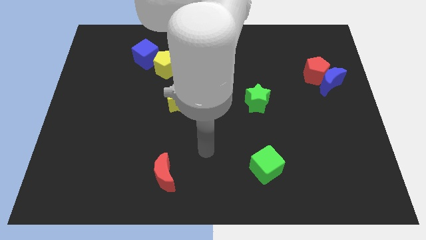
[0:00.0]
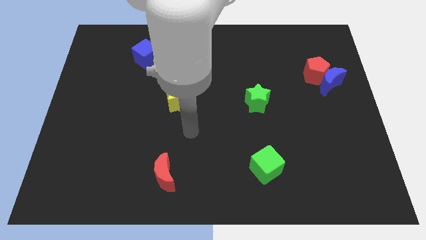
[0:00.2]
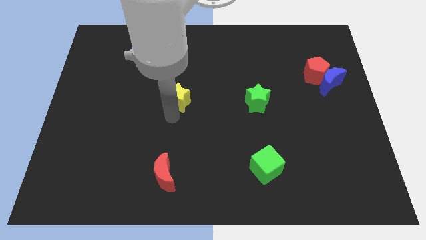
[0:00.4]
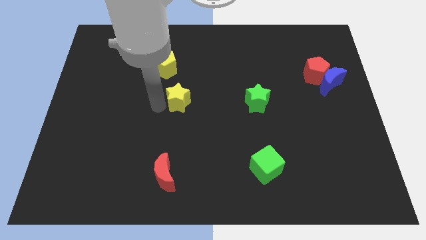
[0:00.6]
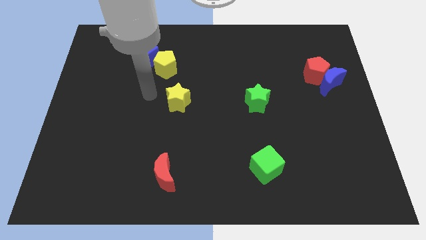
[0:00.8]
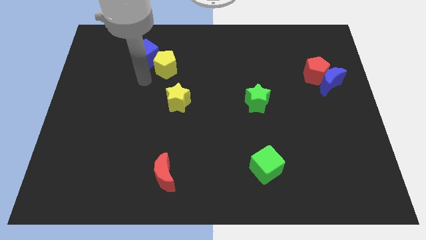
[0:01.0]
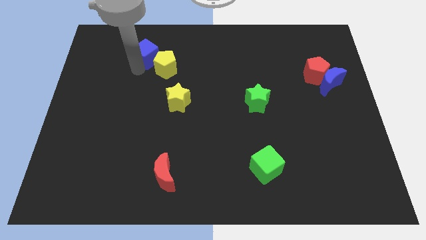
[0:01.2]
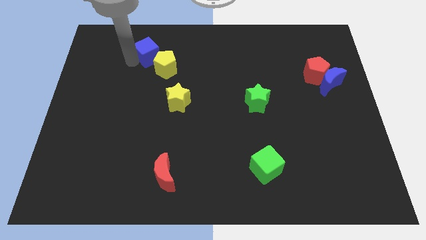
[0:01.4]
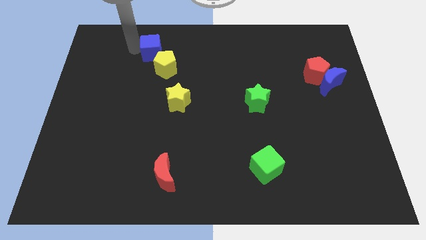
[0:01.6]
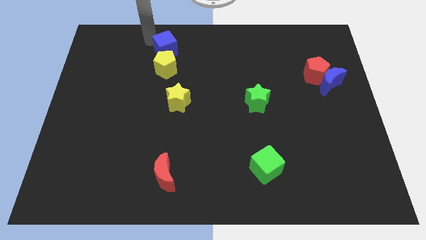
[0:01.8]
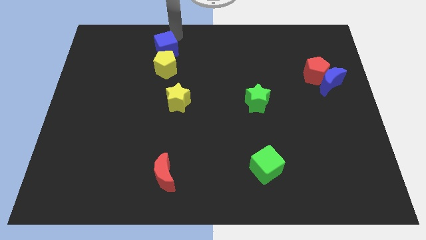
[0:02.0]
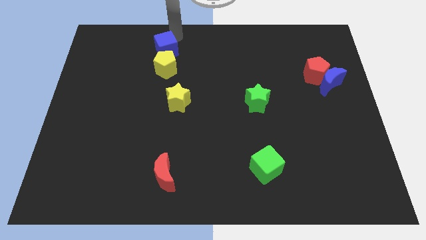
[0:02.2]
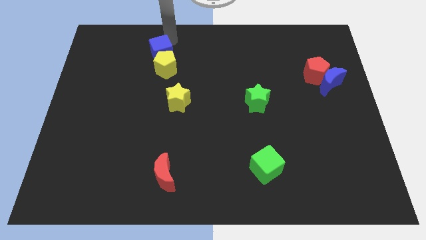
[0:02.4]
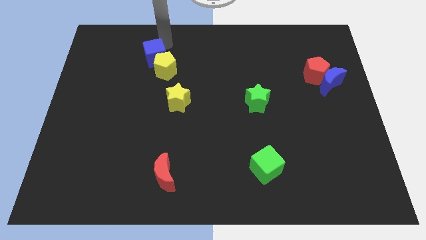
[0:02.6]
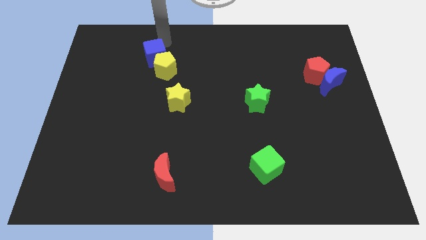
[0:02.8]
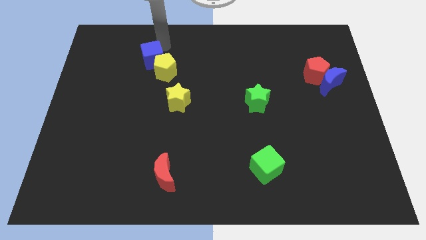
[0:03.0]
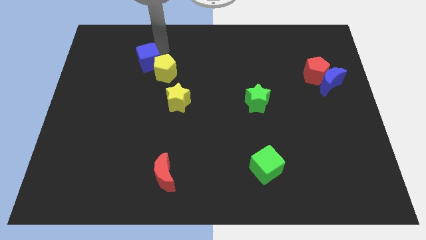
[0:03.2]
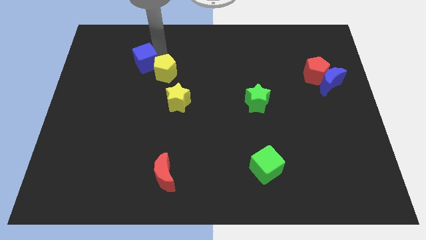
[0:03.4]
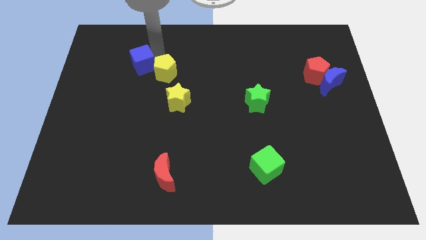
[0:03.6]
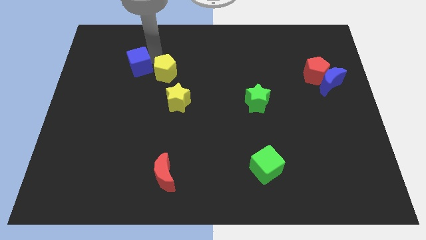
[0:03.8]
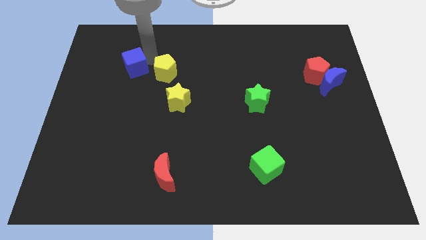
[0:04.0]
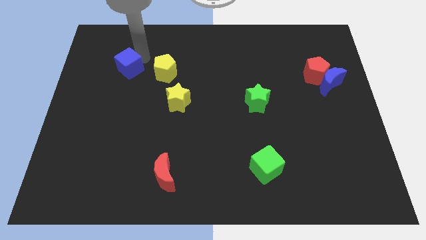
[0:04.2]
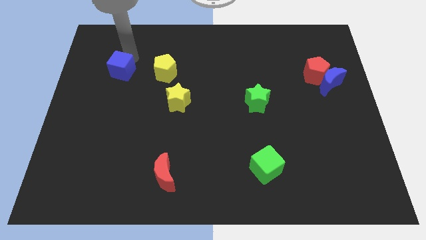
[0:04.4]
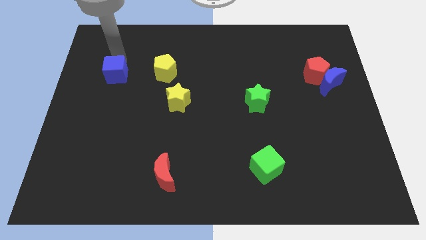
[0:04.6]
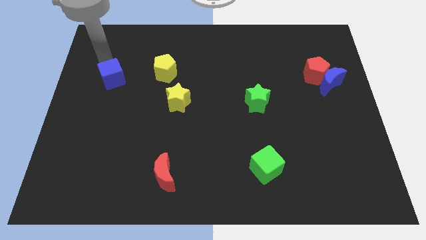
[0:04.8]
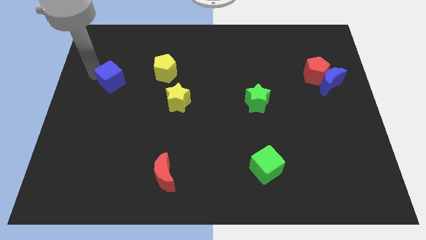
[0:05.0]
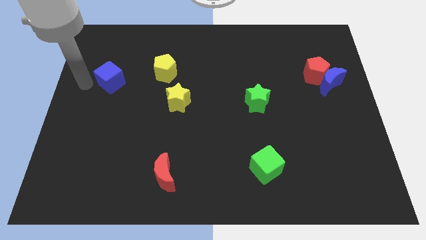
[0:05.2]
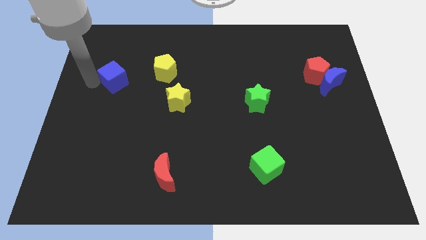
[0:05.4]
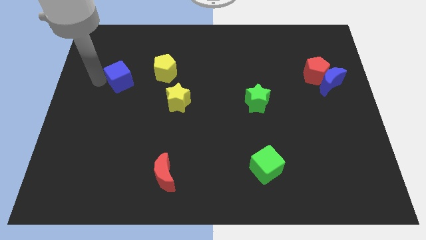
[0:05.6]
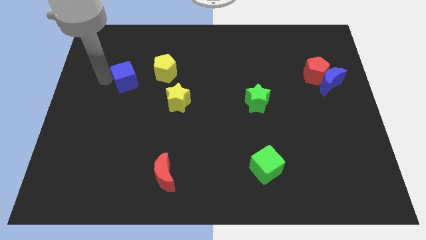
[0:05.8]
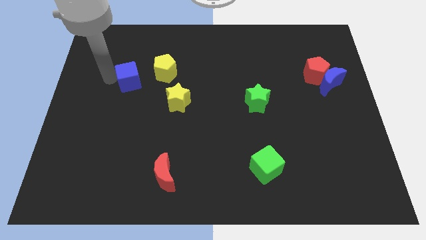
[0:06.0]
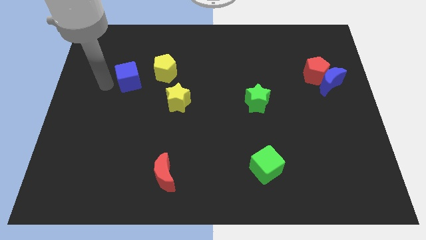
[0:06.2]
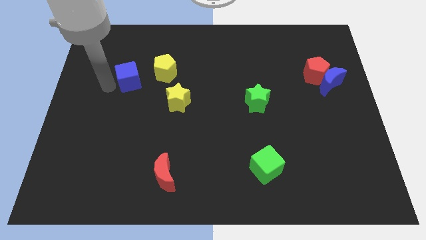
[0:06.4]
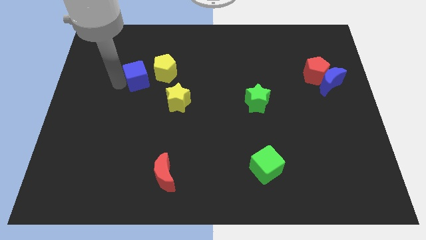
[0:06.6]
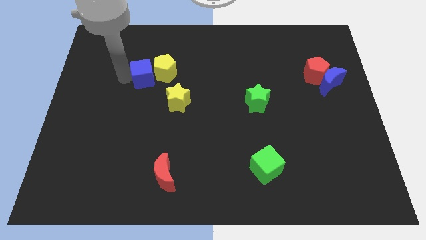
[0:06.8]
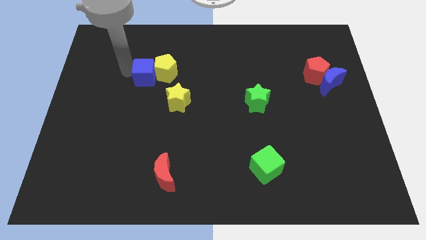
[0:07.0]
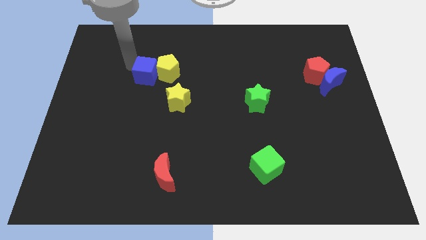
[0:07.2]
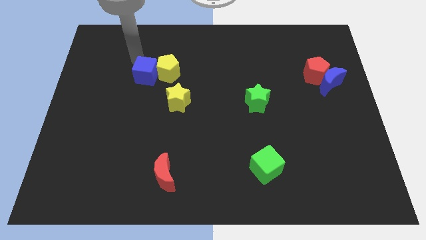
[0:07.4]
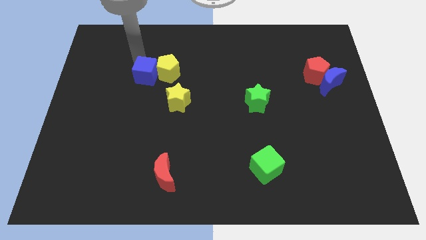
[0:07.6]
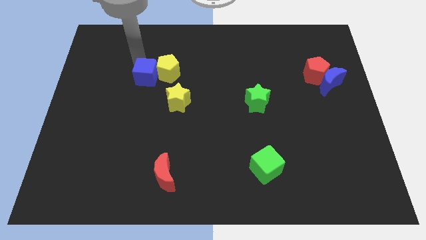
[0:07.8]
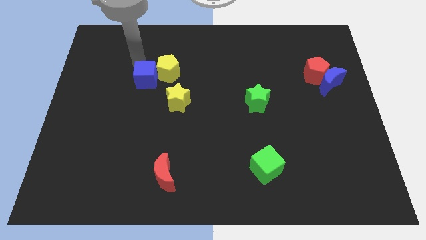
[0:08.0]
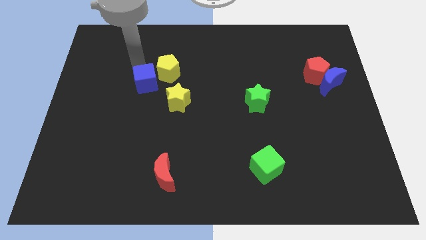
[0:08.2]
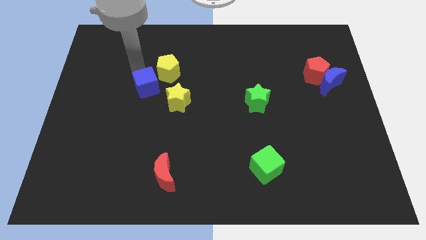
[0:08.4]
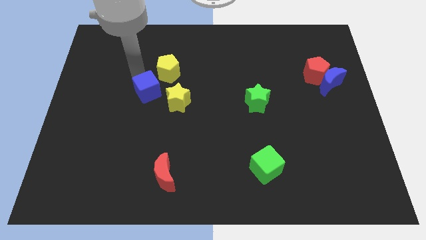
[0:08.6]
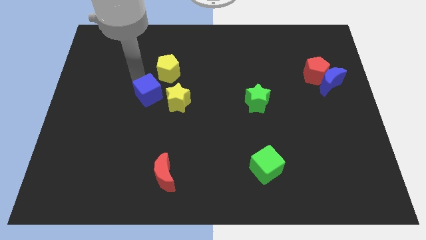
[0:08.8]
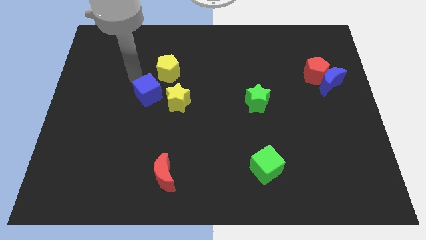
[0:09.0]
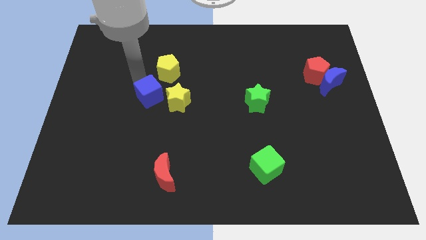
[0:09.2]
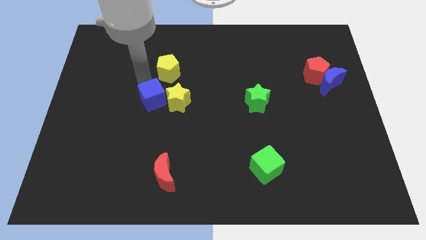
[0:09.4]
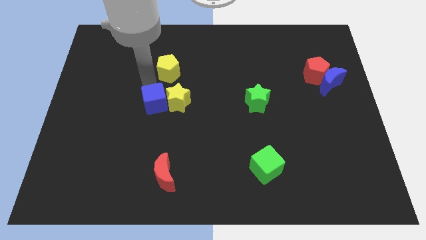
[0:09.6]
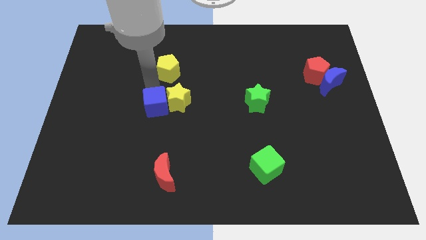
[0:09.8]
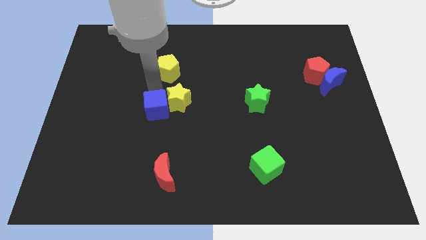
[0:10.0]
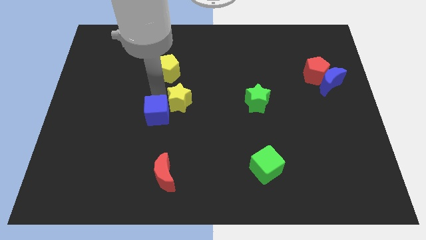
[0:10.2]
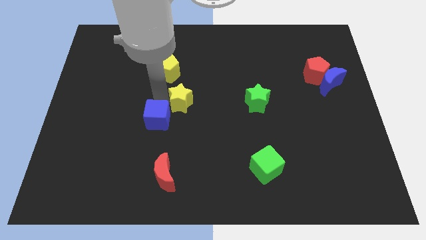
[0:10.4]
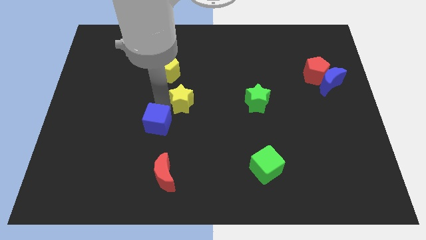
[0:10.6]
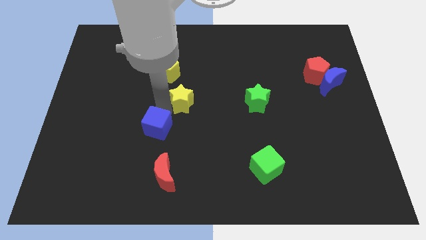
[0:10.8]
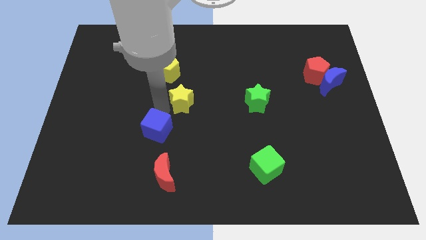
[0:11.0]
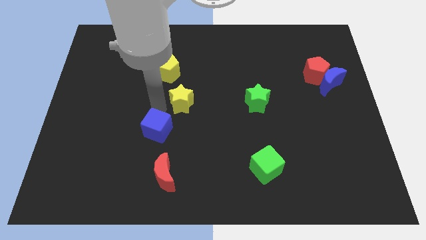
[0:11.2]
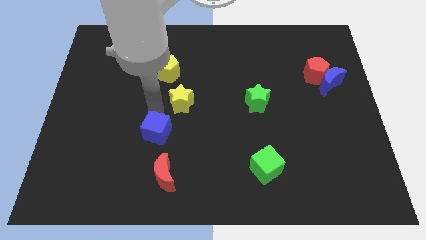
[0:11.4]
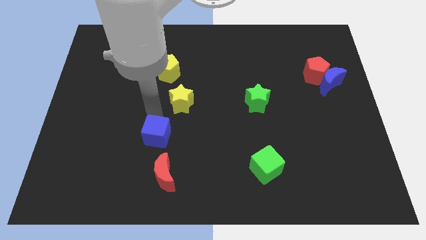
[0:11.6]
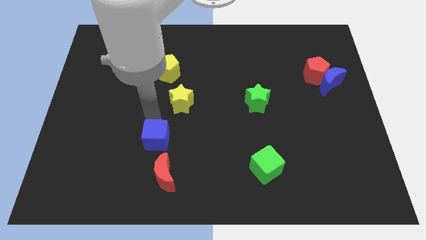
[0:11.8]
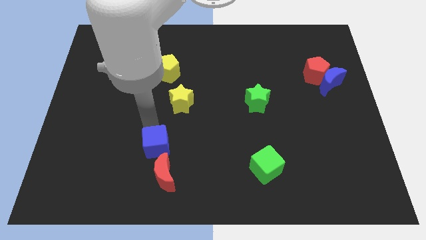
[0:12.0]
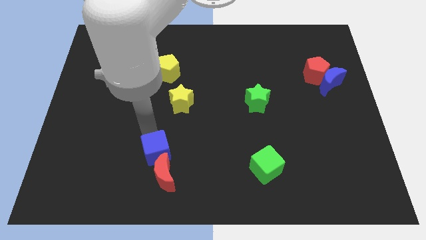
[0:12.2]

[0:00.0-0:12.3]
push the blue cube to the red moon

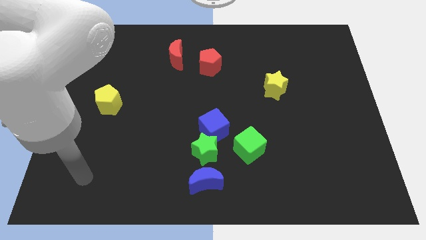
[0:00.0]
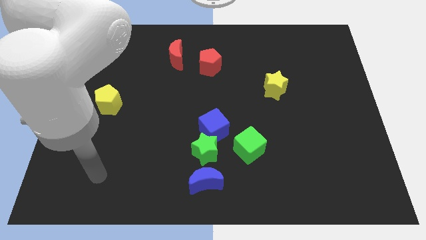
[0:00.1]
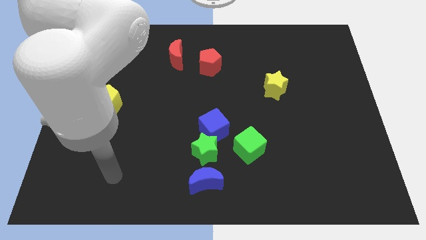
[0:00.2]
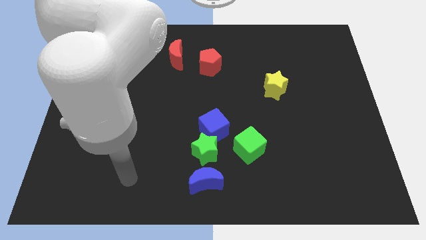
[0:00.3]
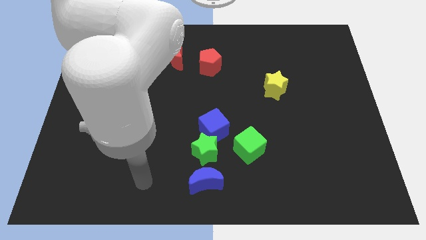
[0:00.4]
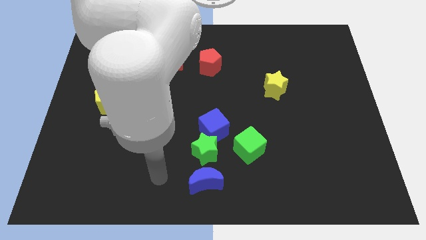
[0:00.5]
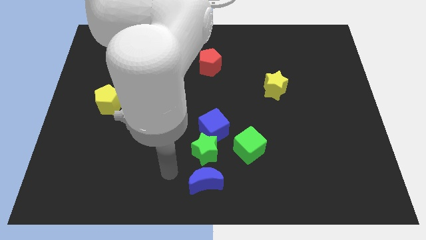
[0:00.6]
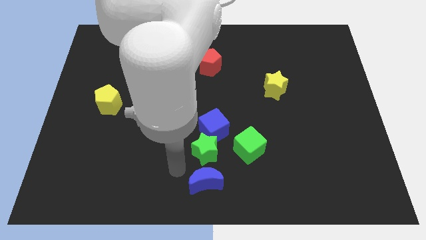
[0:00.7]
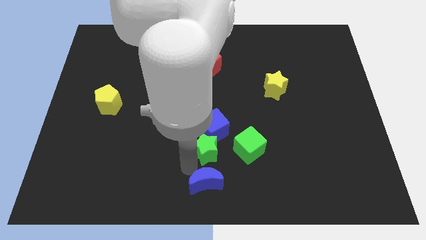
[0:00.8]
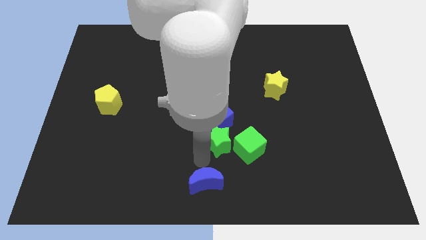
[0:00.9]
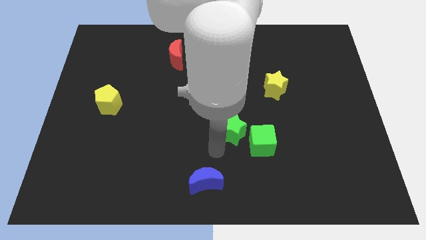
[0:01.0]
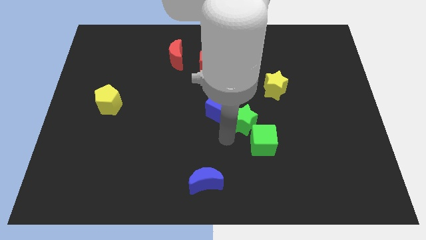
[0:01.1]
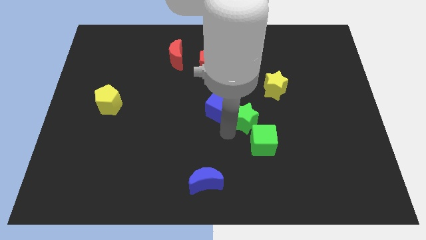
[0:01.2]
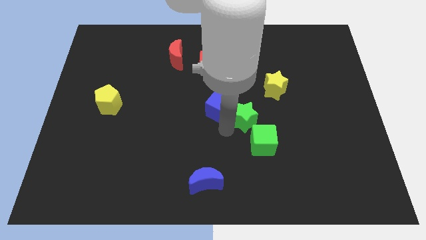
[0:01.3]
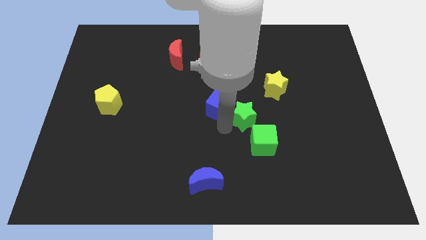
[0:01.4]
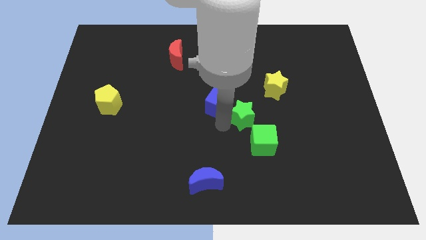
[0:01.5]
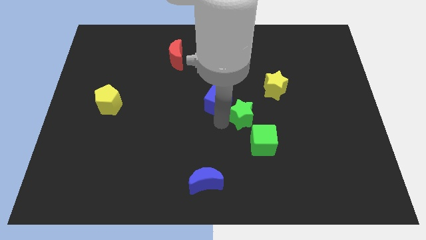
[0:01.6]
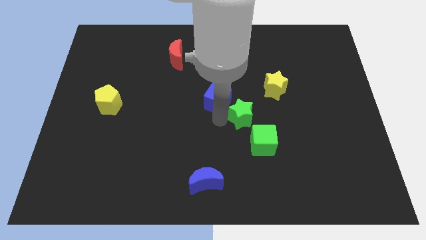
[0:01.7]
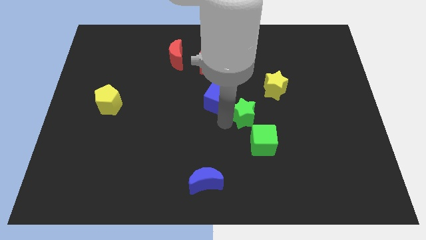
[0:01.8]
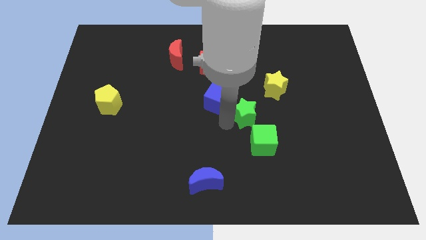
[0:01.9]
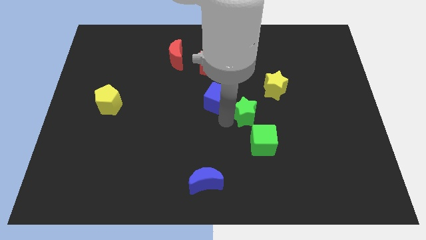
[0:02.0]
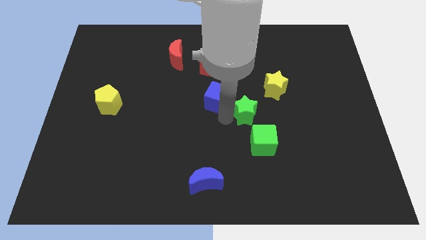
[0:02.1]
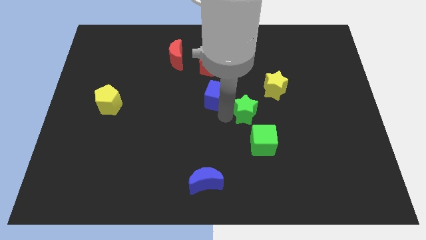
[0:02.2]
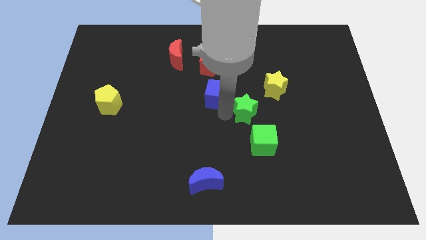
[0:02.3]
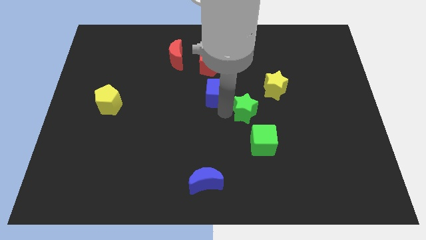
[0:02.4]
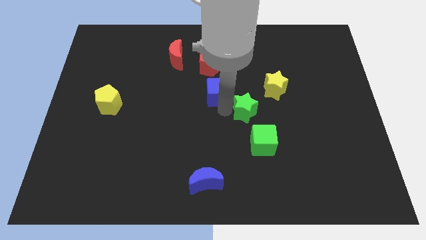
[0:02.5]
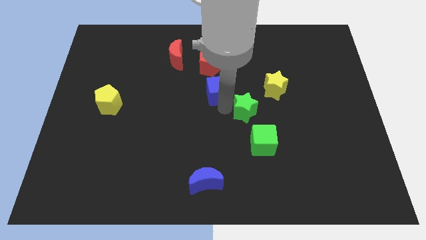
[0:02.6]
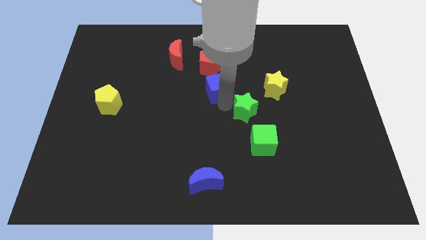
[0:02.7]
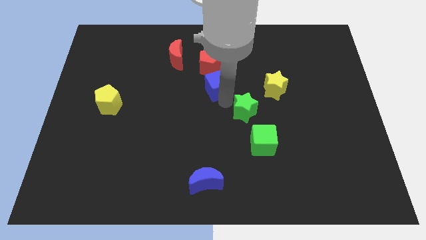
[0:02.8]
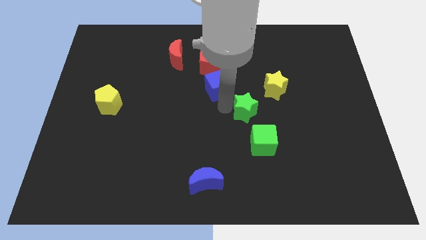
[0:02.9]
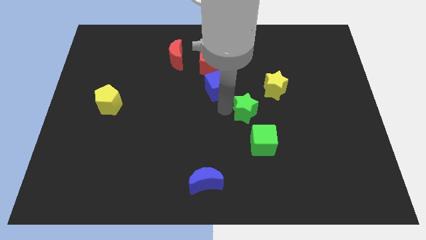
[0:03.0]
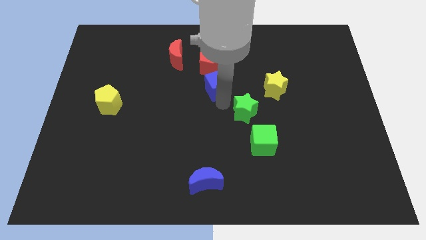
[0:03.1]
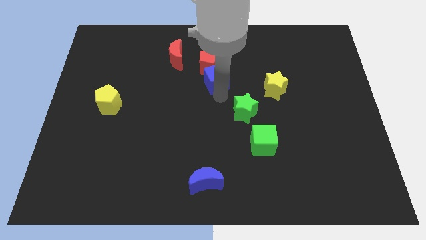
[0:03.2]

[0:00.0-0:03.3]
move the blue cube towards the red pentagon
